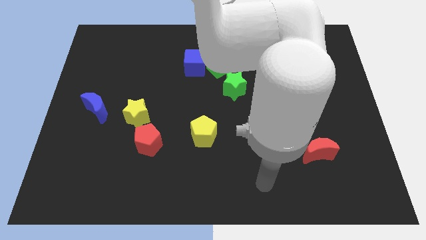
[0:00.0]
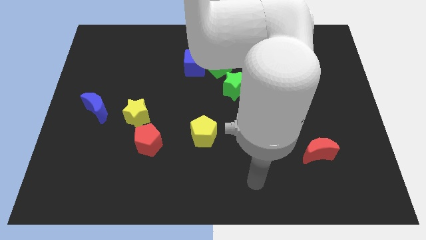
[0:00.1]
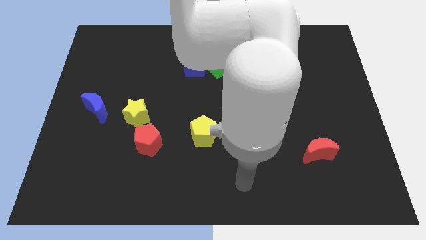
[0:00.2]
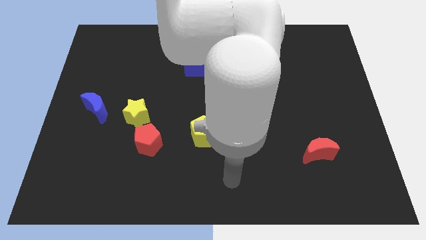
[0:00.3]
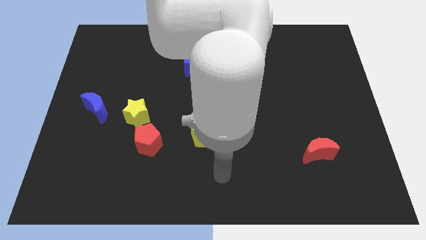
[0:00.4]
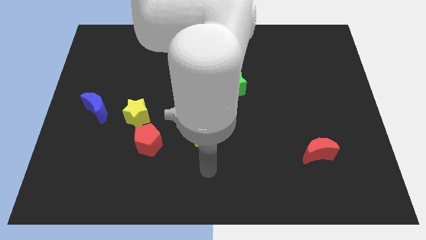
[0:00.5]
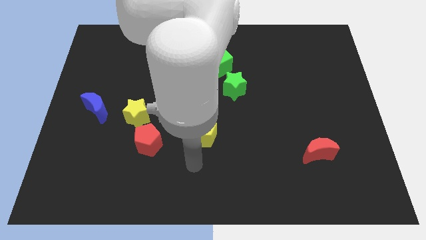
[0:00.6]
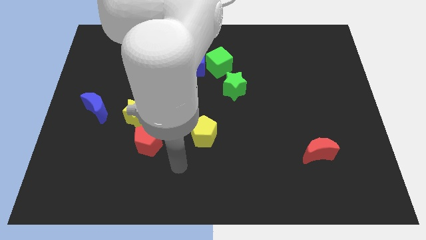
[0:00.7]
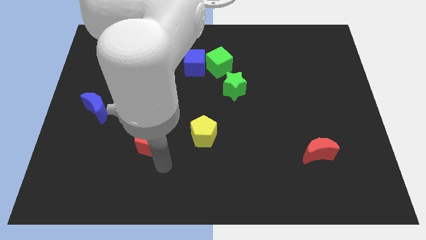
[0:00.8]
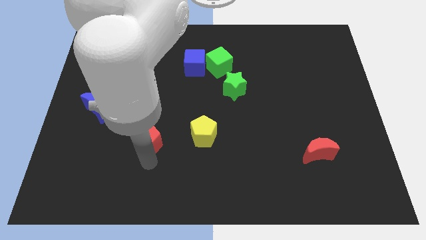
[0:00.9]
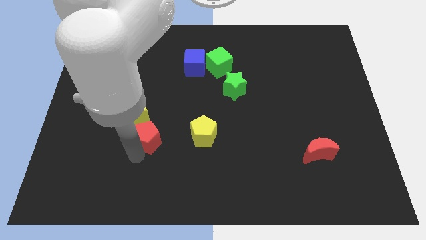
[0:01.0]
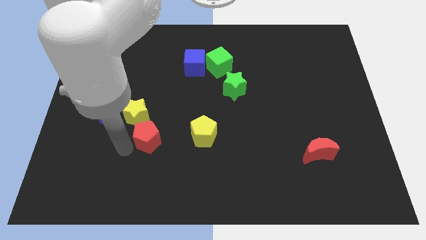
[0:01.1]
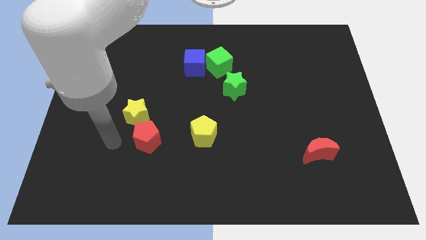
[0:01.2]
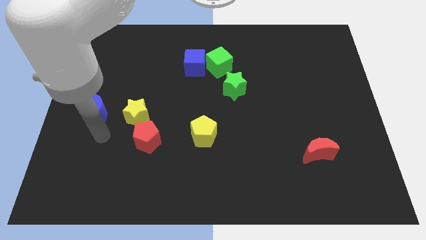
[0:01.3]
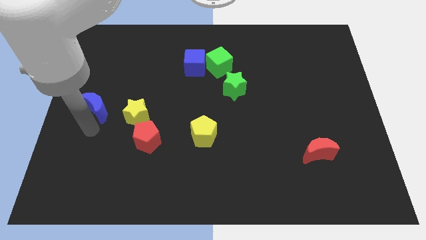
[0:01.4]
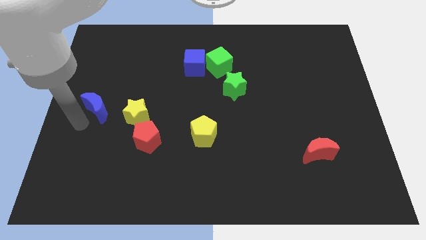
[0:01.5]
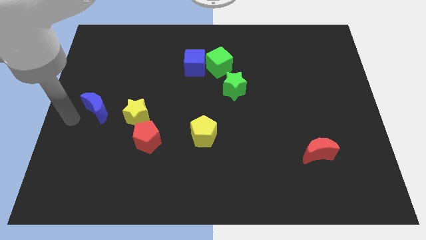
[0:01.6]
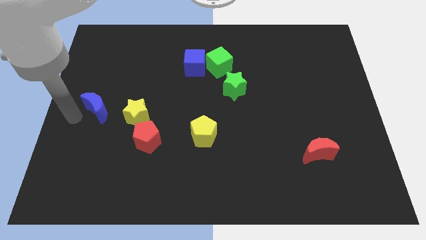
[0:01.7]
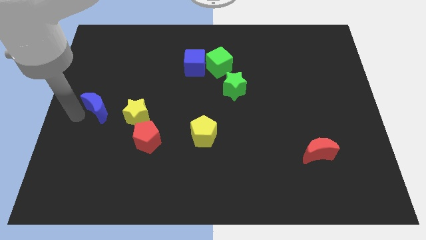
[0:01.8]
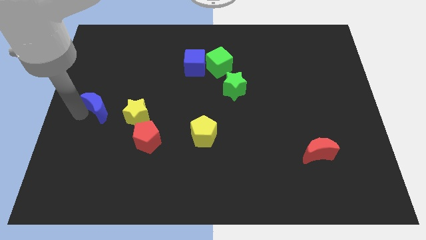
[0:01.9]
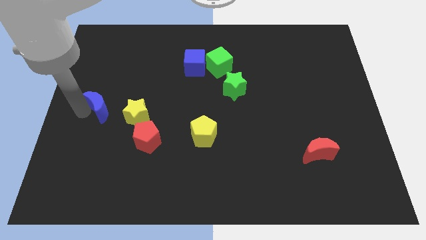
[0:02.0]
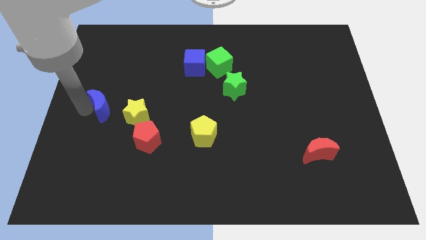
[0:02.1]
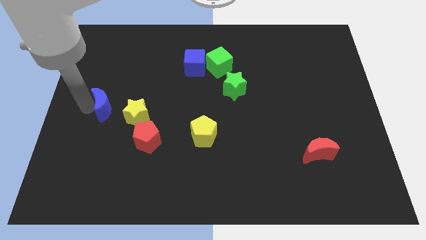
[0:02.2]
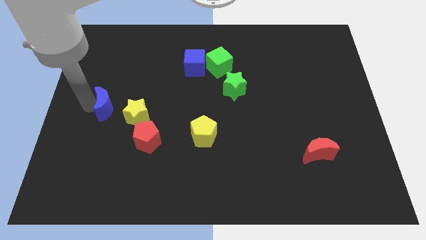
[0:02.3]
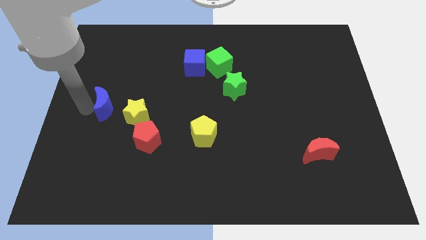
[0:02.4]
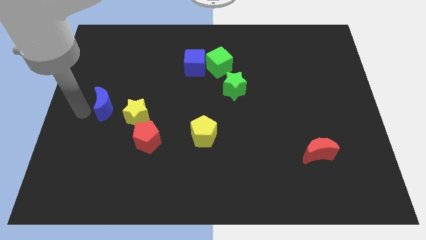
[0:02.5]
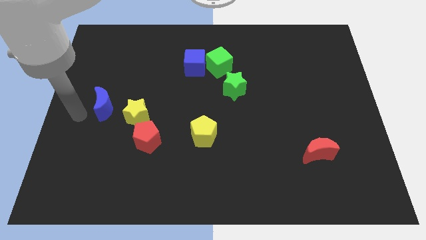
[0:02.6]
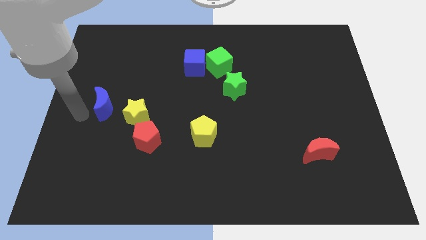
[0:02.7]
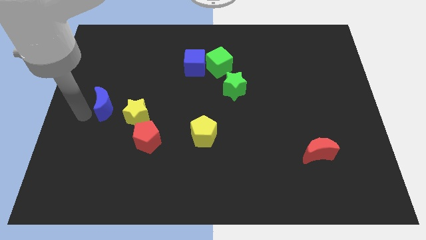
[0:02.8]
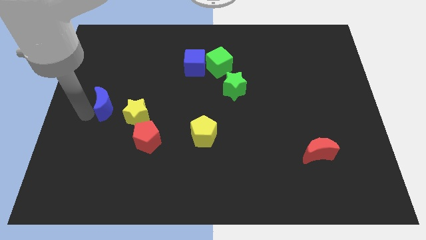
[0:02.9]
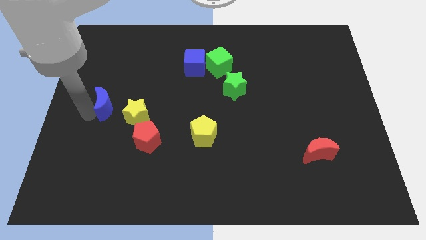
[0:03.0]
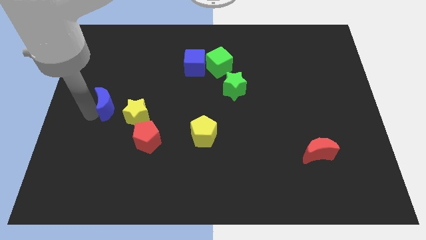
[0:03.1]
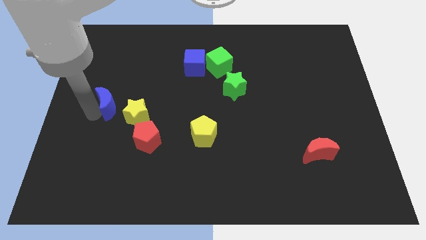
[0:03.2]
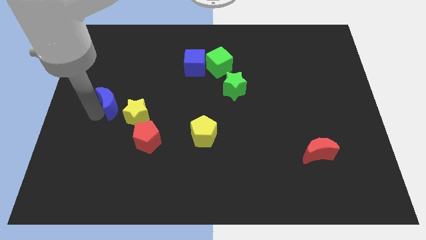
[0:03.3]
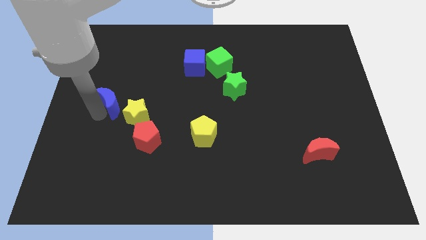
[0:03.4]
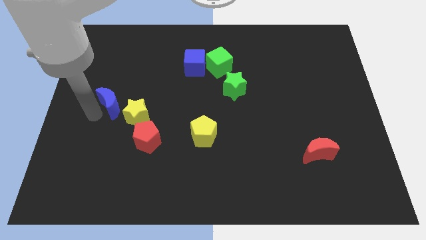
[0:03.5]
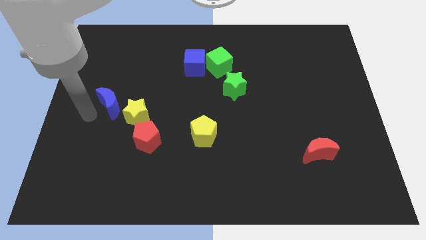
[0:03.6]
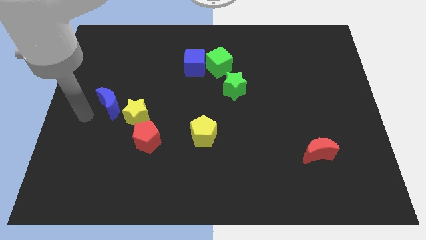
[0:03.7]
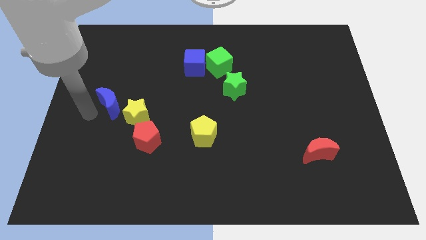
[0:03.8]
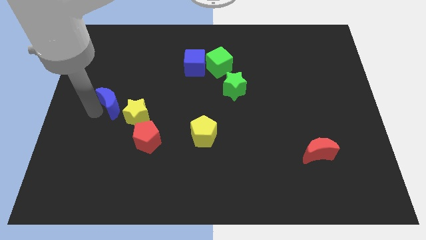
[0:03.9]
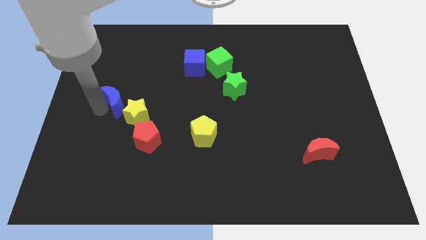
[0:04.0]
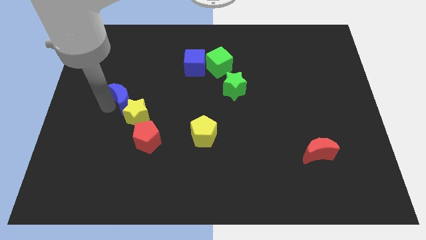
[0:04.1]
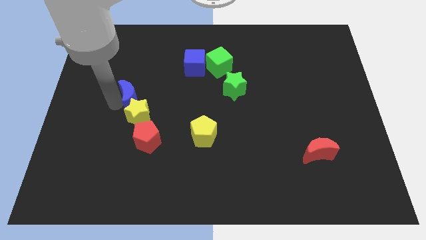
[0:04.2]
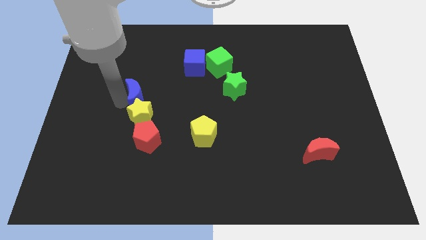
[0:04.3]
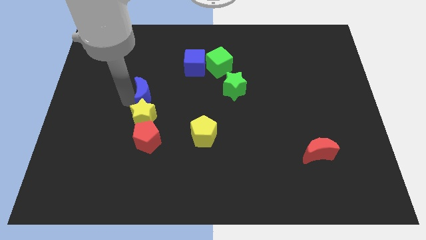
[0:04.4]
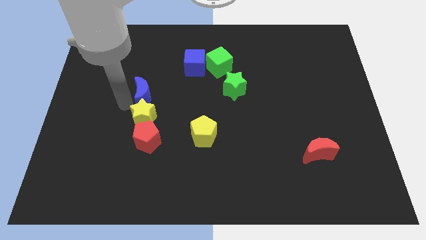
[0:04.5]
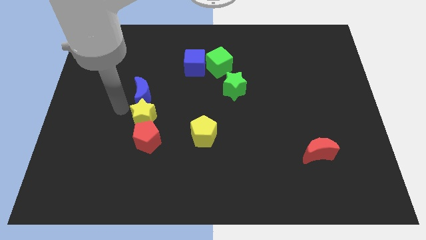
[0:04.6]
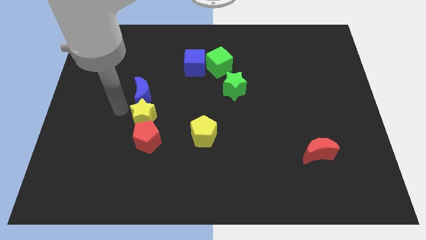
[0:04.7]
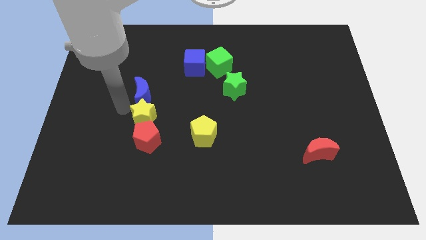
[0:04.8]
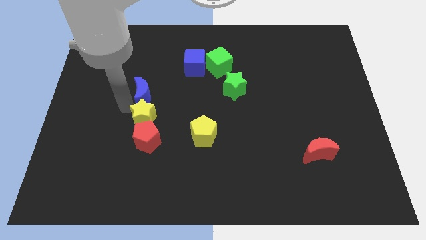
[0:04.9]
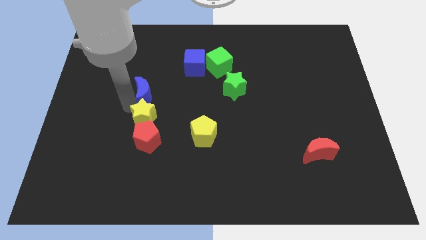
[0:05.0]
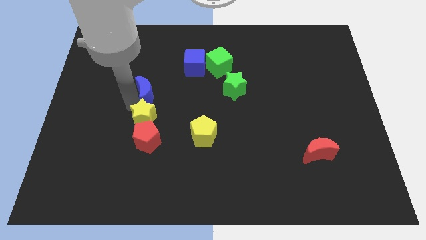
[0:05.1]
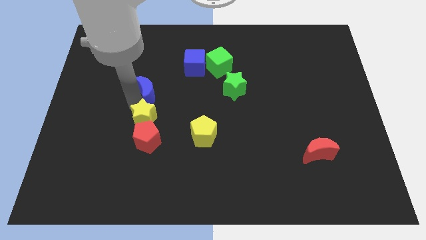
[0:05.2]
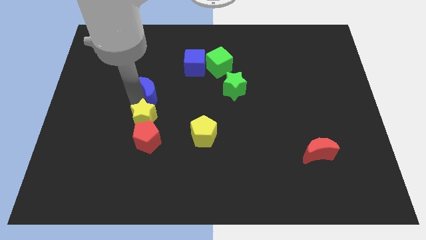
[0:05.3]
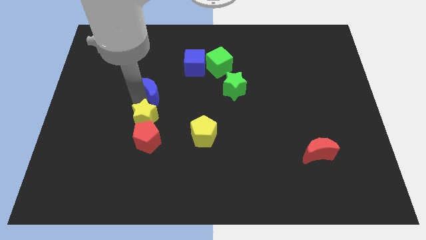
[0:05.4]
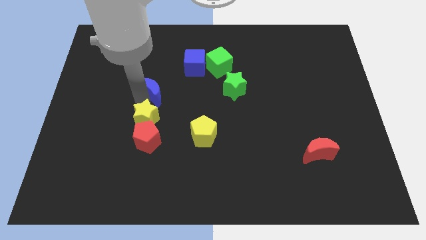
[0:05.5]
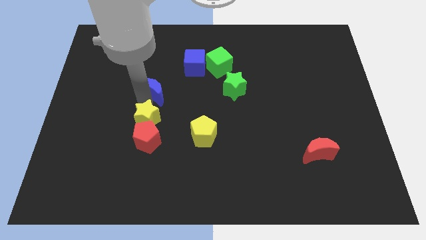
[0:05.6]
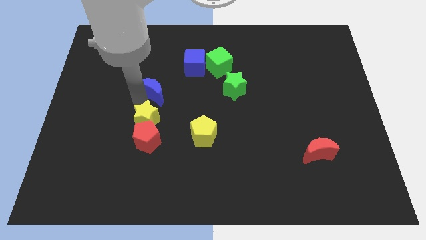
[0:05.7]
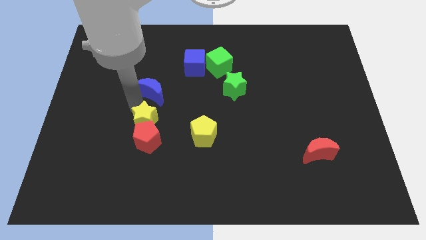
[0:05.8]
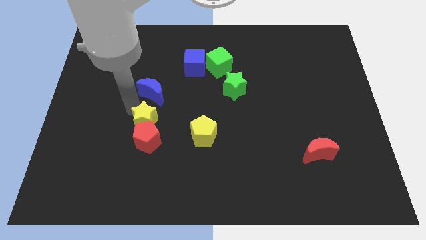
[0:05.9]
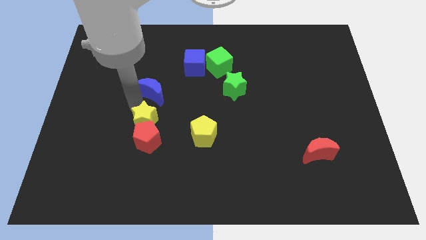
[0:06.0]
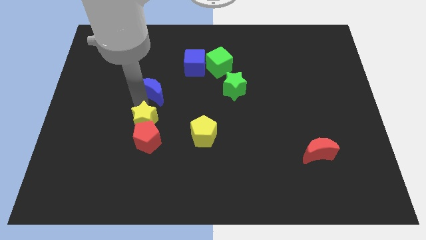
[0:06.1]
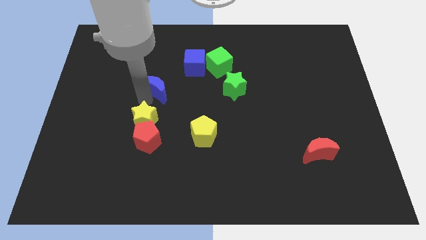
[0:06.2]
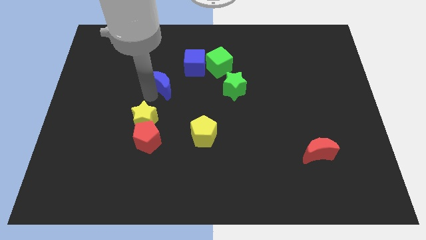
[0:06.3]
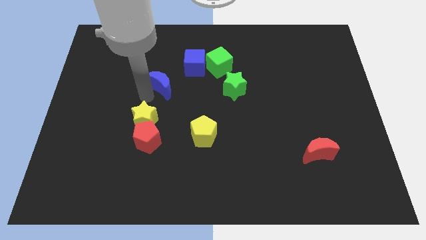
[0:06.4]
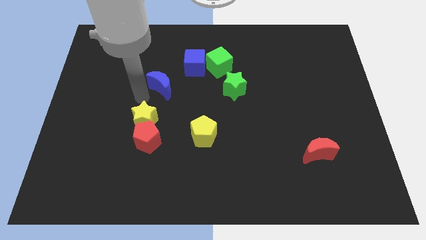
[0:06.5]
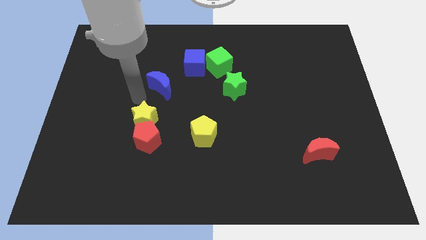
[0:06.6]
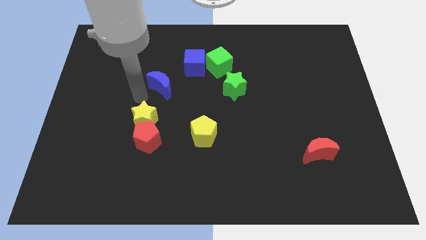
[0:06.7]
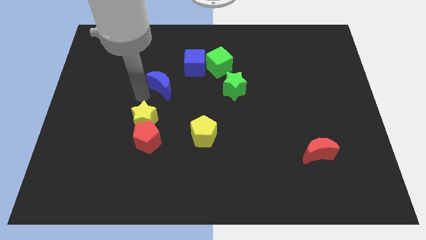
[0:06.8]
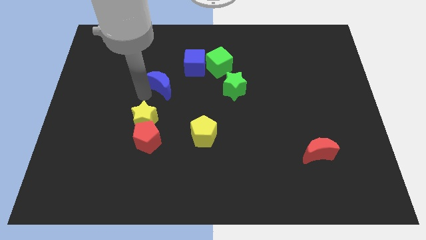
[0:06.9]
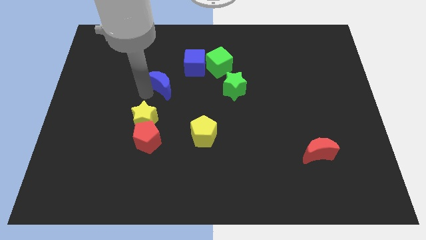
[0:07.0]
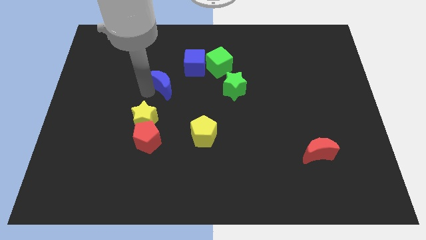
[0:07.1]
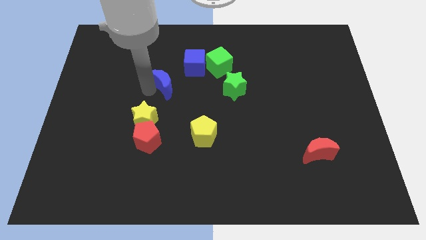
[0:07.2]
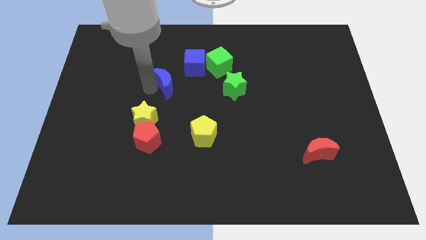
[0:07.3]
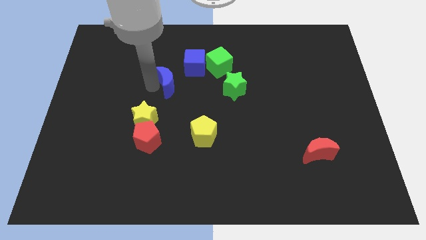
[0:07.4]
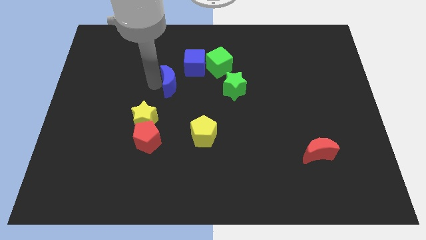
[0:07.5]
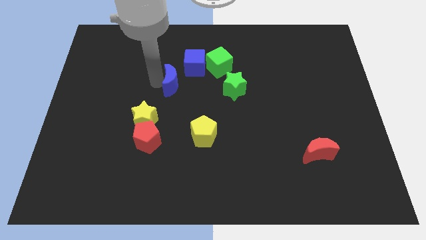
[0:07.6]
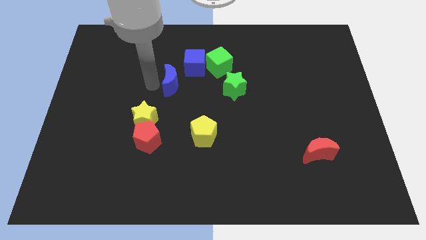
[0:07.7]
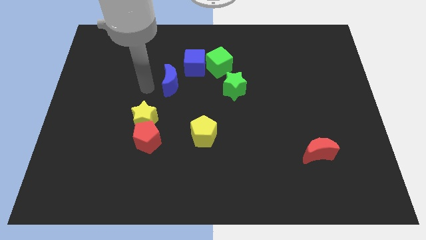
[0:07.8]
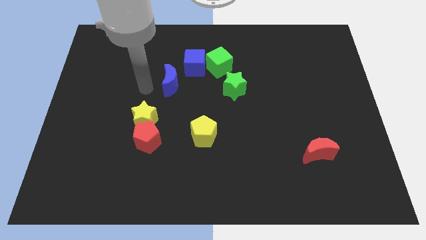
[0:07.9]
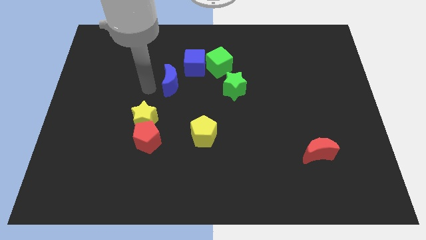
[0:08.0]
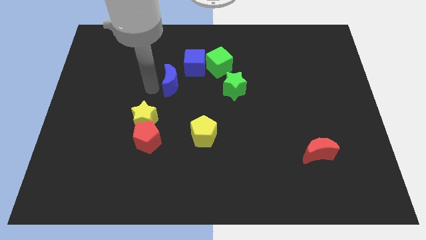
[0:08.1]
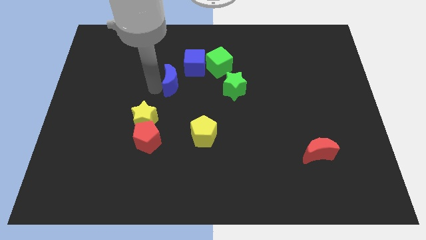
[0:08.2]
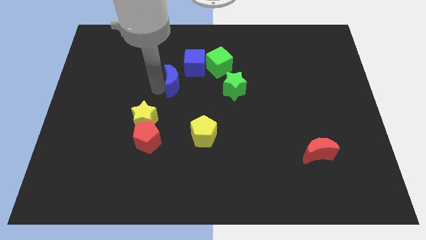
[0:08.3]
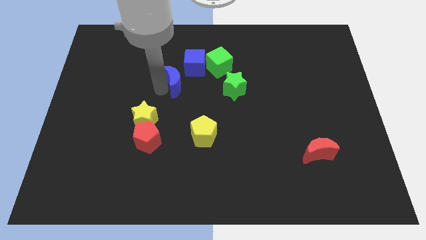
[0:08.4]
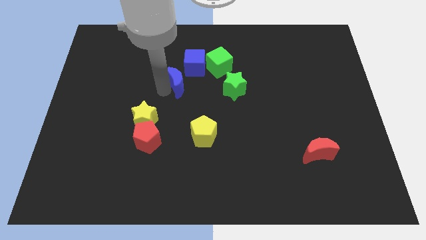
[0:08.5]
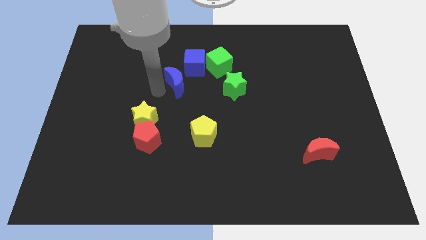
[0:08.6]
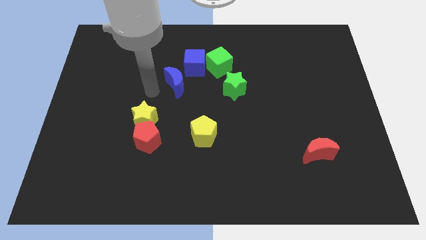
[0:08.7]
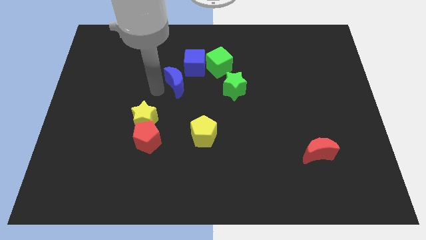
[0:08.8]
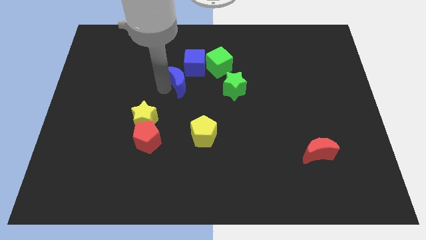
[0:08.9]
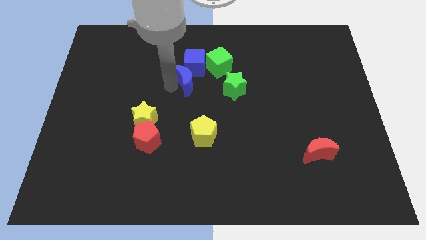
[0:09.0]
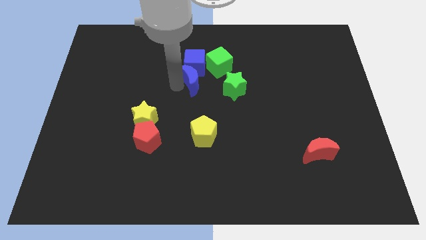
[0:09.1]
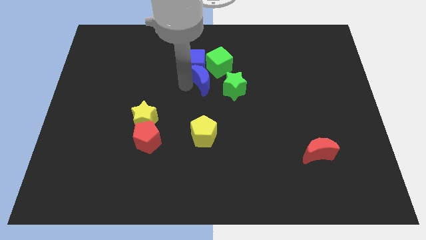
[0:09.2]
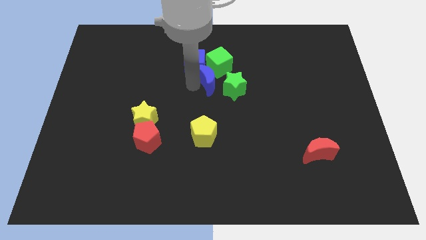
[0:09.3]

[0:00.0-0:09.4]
put the blue moon towards the green cube
